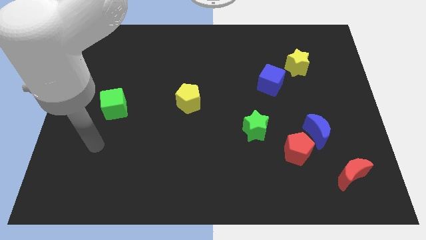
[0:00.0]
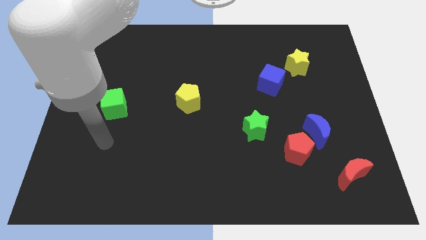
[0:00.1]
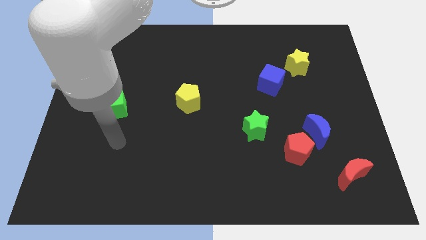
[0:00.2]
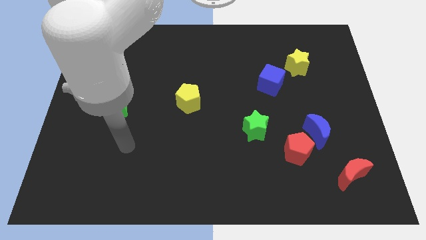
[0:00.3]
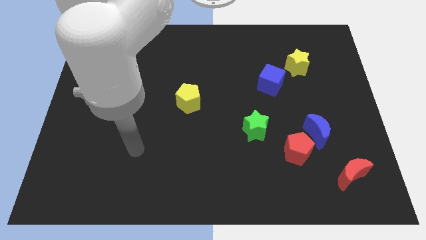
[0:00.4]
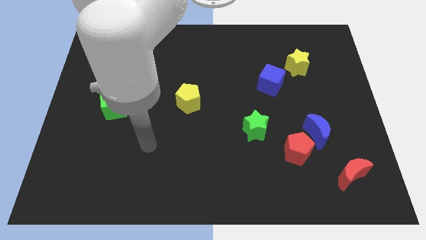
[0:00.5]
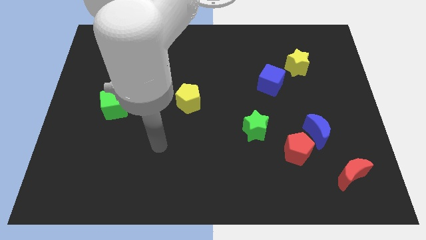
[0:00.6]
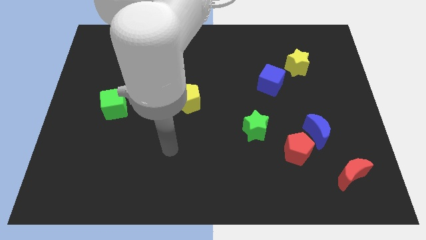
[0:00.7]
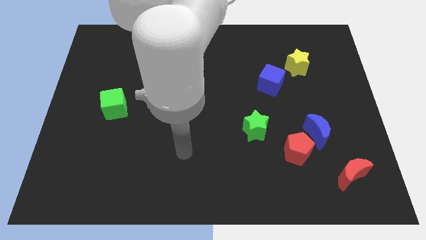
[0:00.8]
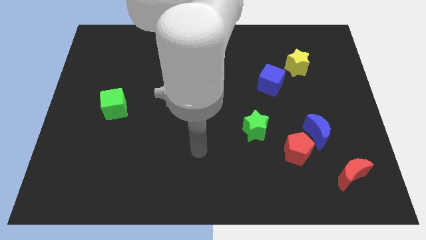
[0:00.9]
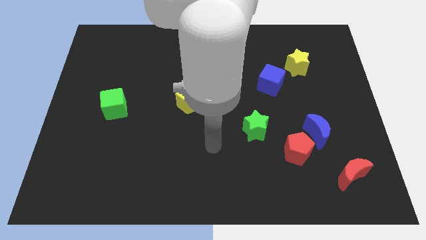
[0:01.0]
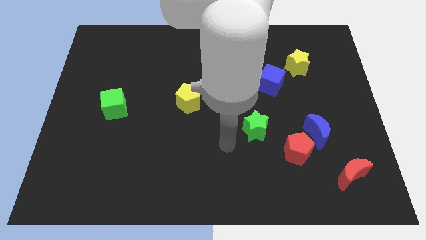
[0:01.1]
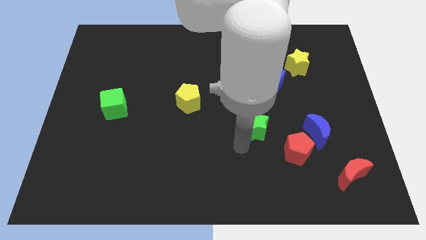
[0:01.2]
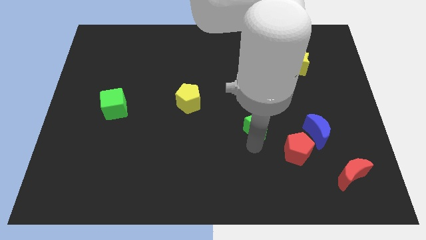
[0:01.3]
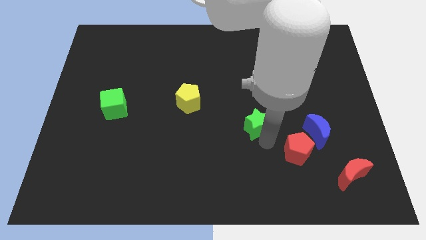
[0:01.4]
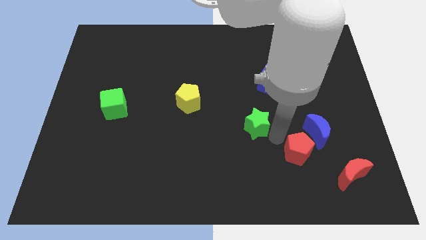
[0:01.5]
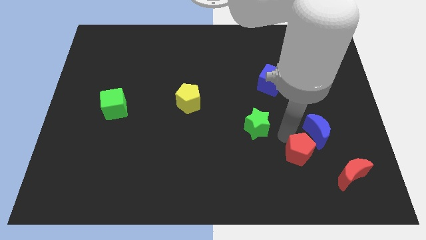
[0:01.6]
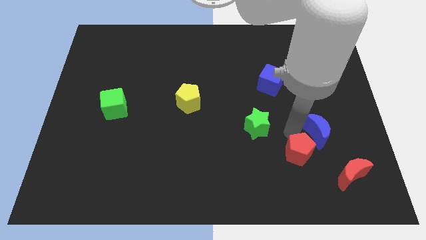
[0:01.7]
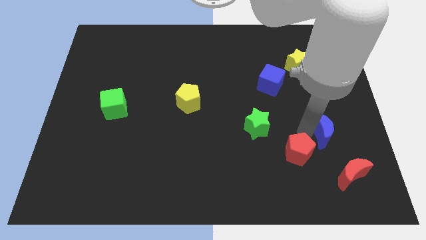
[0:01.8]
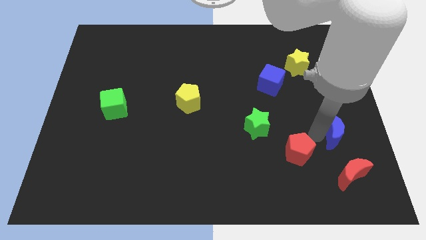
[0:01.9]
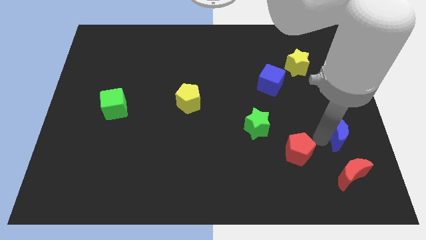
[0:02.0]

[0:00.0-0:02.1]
separate the red pentagon from the blue moon

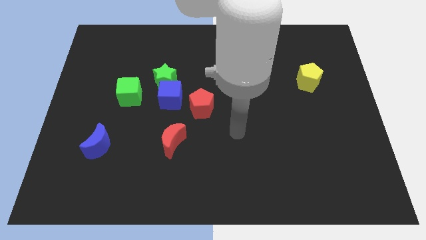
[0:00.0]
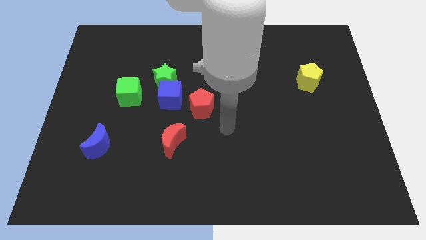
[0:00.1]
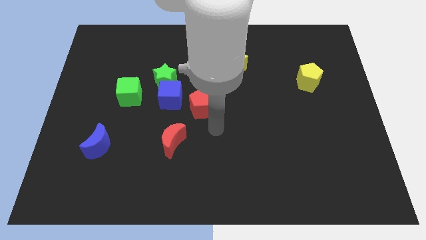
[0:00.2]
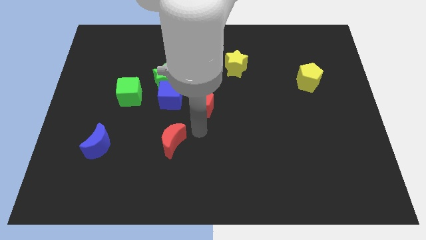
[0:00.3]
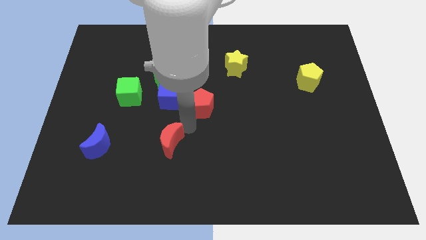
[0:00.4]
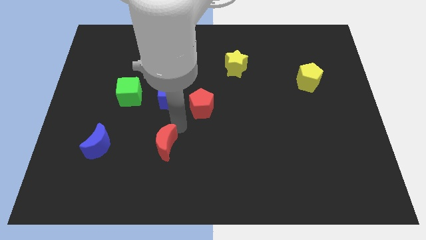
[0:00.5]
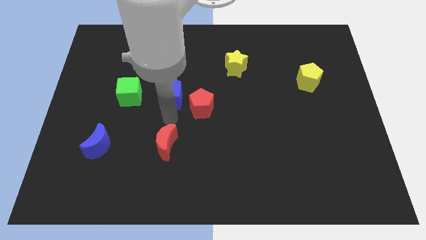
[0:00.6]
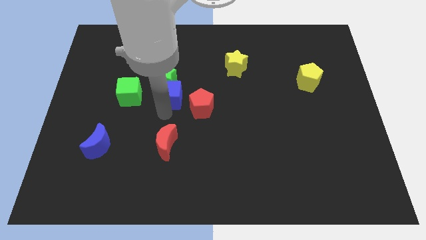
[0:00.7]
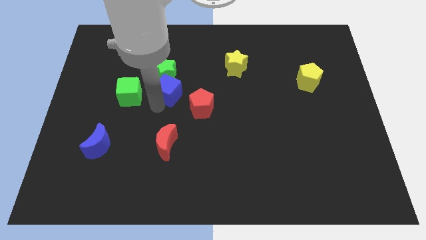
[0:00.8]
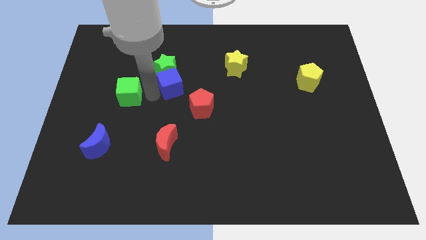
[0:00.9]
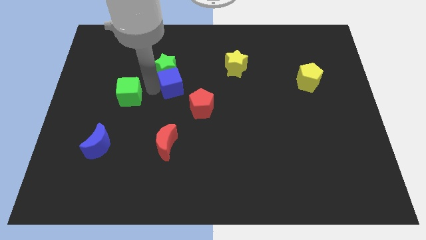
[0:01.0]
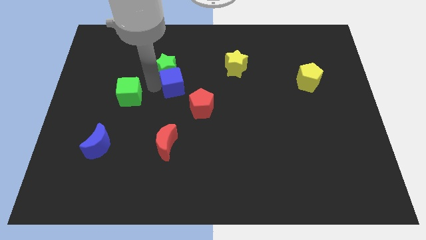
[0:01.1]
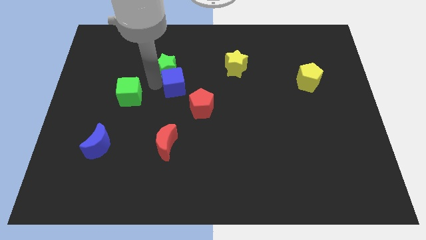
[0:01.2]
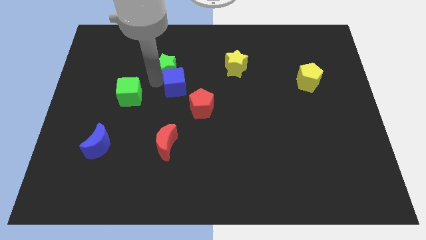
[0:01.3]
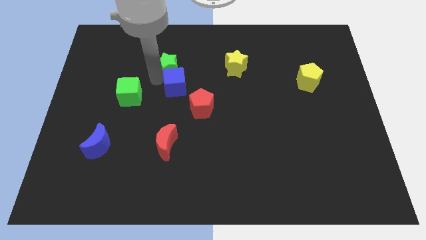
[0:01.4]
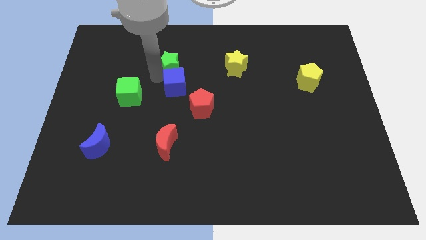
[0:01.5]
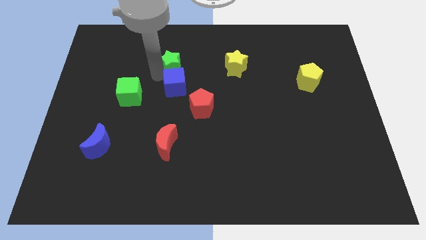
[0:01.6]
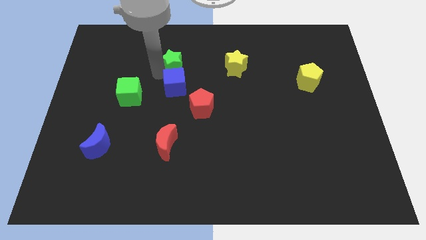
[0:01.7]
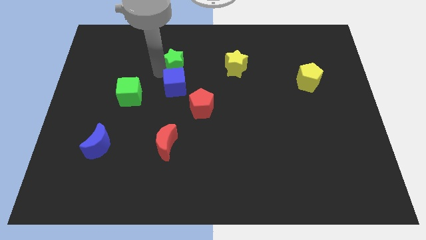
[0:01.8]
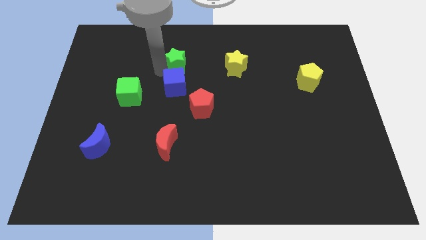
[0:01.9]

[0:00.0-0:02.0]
move the green star away from the blue cube and green cube

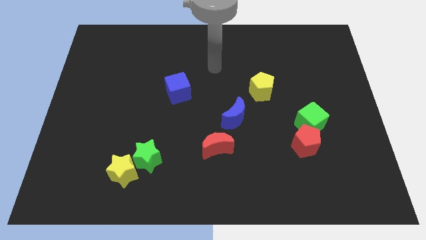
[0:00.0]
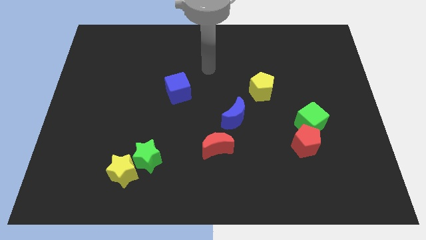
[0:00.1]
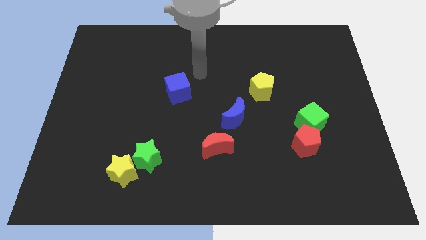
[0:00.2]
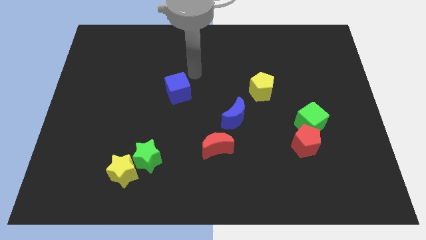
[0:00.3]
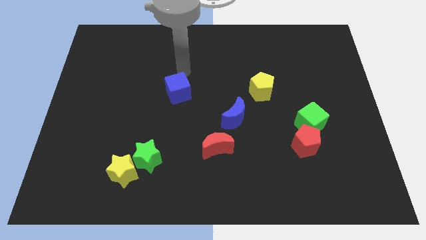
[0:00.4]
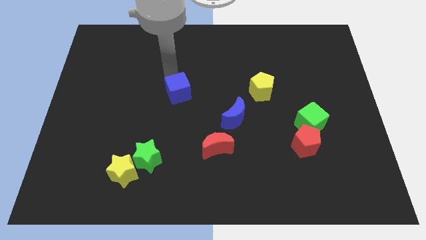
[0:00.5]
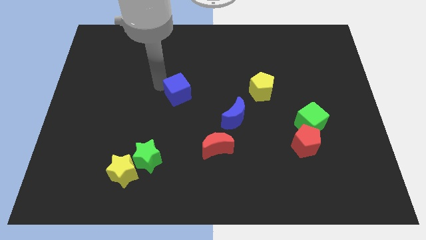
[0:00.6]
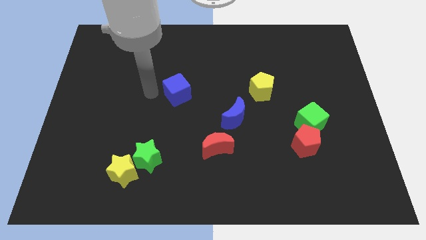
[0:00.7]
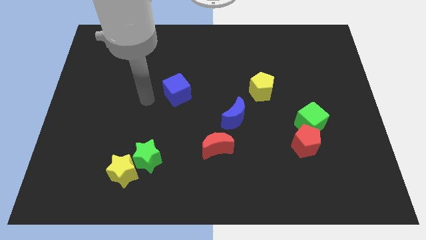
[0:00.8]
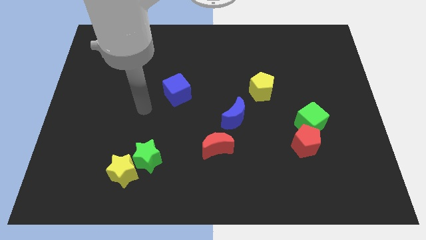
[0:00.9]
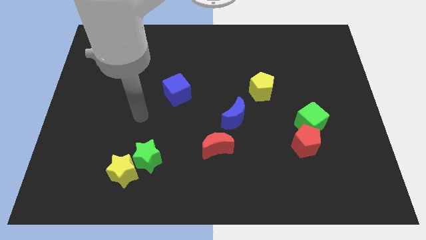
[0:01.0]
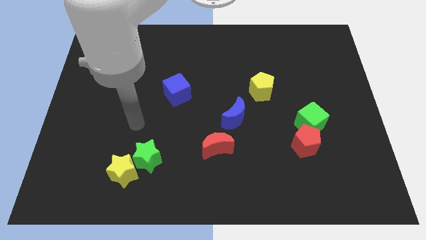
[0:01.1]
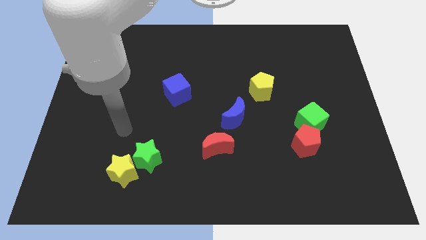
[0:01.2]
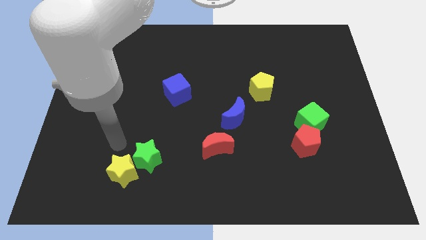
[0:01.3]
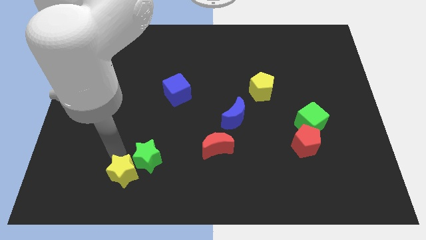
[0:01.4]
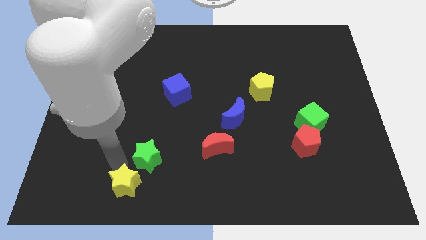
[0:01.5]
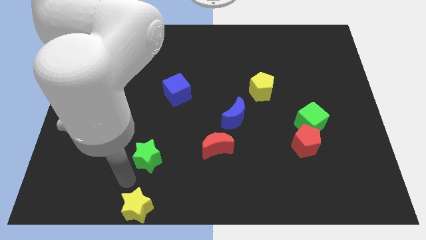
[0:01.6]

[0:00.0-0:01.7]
separate the green star from the yellow star

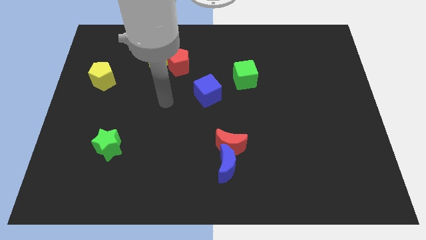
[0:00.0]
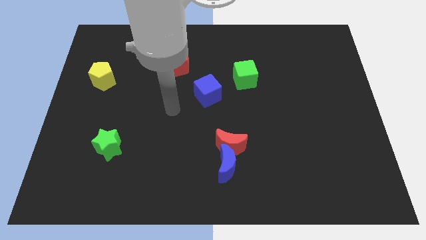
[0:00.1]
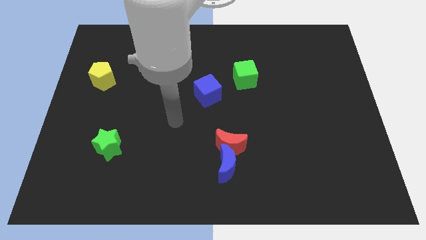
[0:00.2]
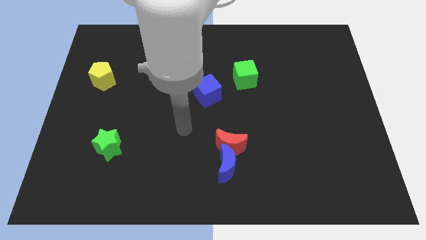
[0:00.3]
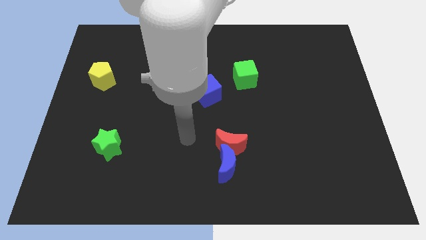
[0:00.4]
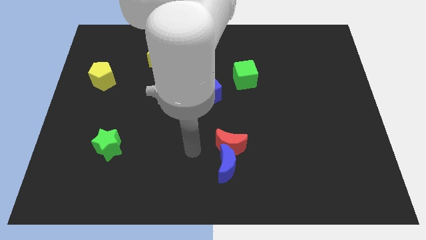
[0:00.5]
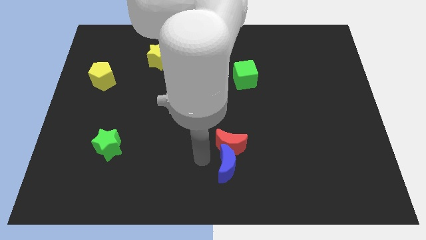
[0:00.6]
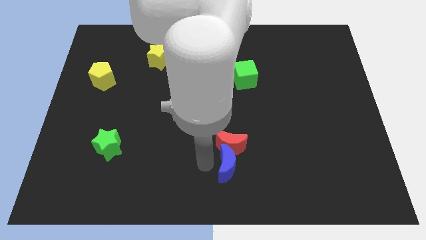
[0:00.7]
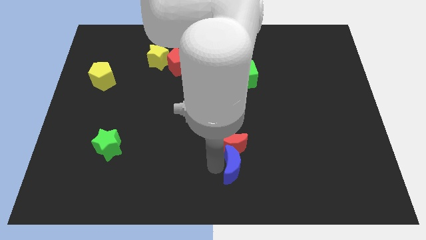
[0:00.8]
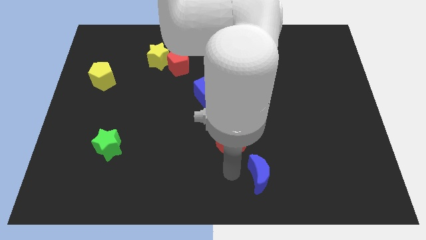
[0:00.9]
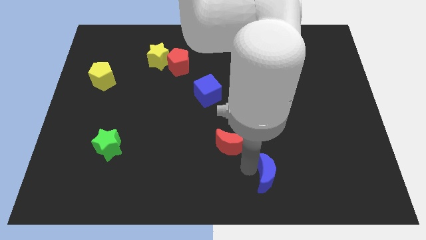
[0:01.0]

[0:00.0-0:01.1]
move the red moon away from the blue moon

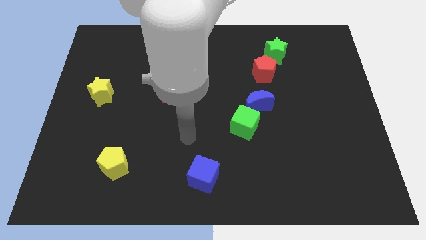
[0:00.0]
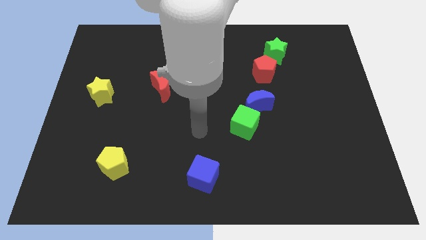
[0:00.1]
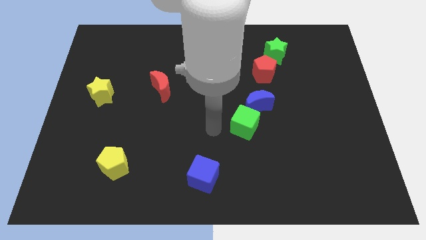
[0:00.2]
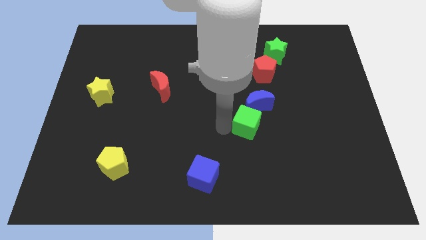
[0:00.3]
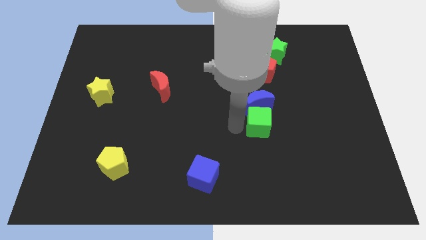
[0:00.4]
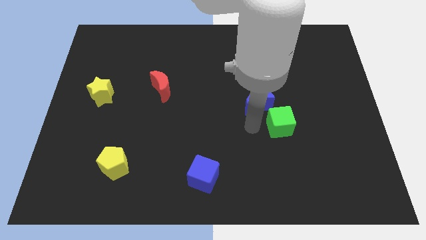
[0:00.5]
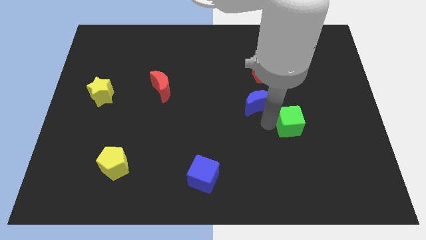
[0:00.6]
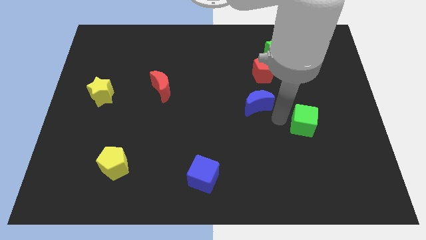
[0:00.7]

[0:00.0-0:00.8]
separate the blue moon from the green cube

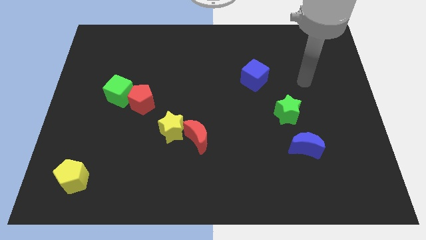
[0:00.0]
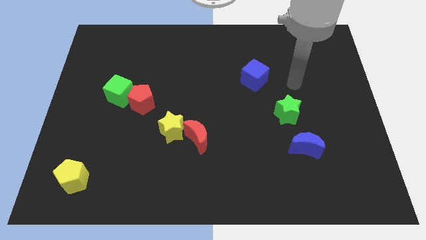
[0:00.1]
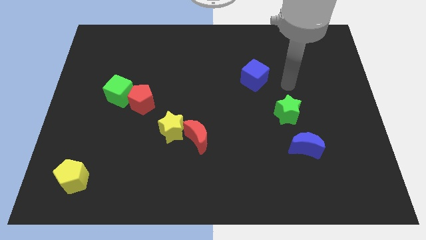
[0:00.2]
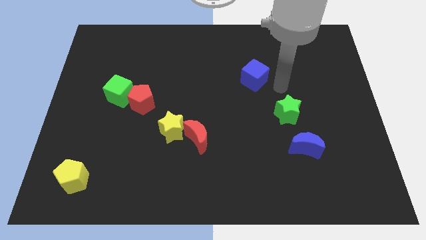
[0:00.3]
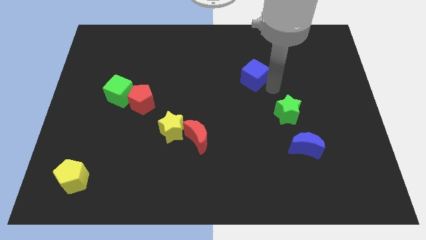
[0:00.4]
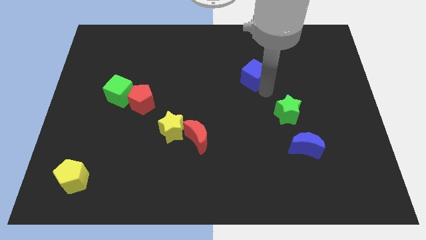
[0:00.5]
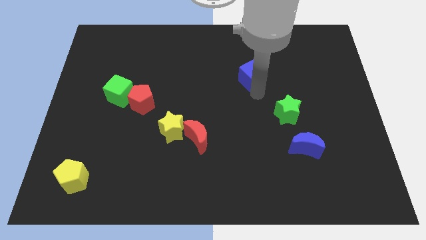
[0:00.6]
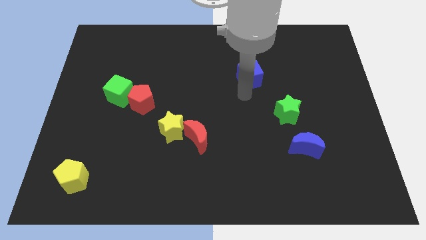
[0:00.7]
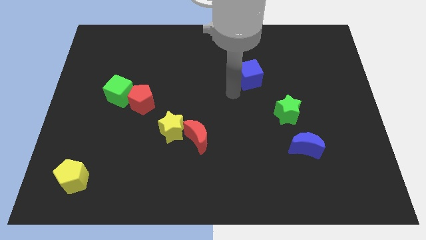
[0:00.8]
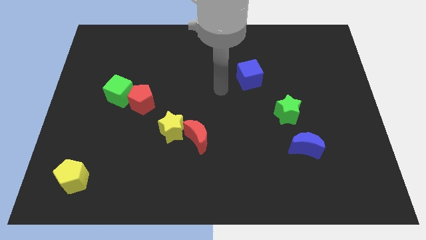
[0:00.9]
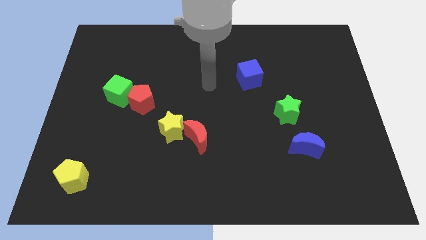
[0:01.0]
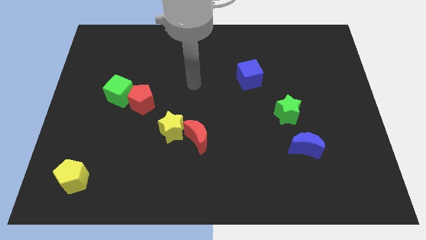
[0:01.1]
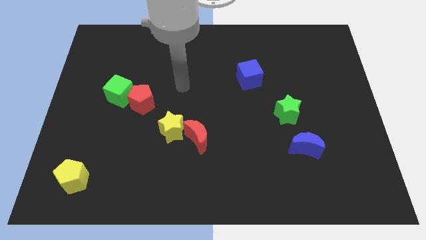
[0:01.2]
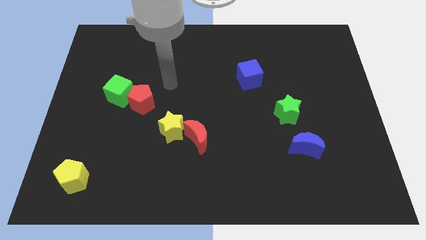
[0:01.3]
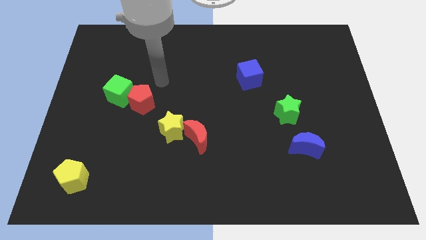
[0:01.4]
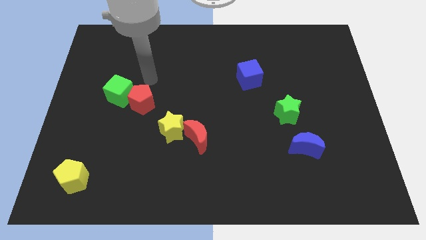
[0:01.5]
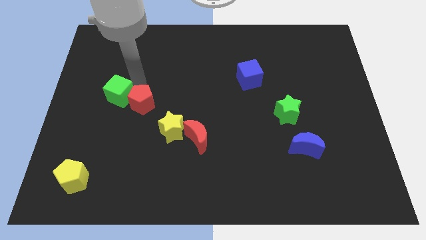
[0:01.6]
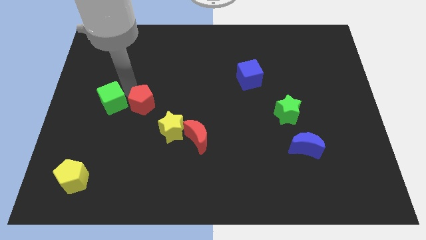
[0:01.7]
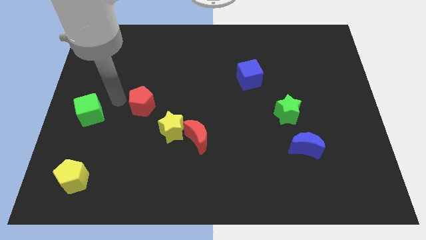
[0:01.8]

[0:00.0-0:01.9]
separate the red pentagon from the green cube
